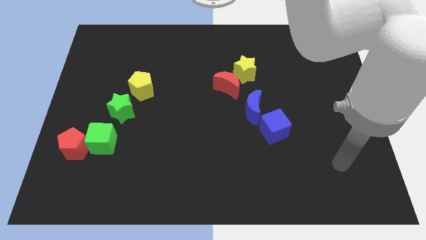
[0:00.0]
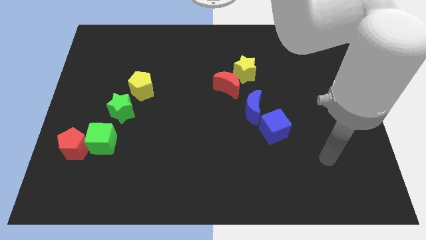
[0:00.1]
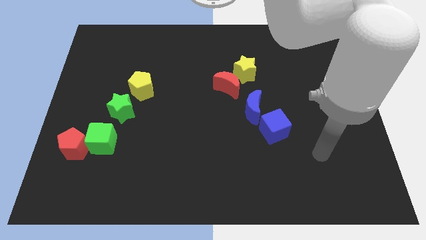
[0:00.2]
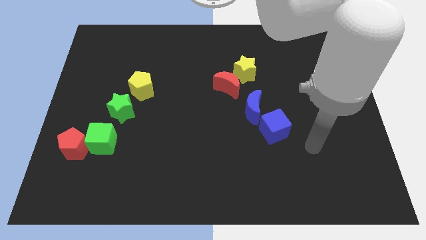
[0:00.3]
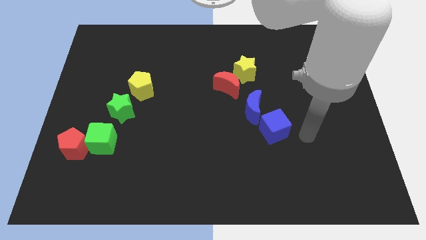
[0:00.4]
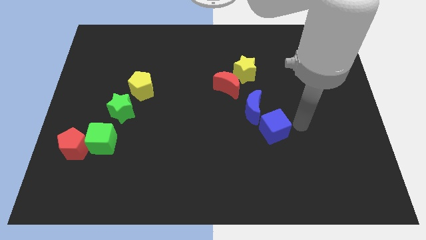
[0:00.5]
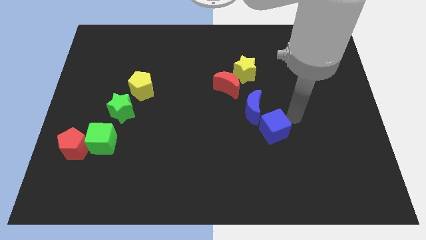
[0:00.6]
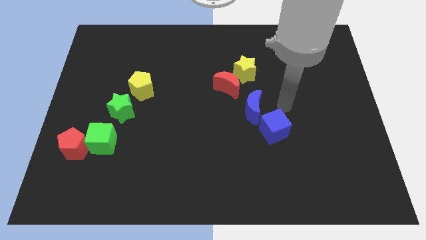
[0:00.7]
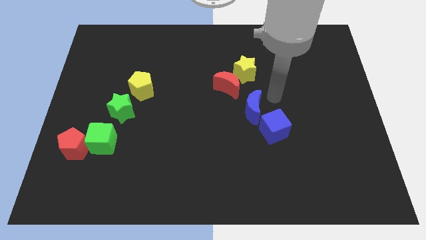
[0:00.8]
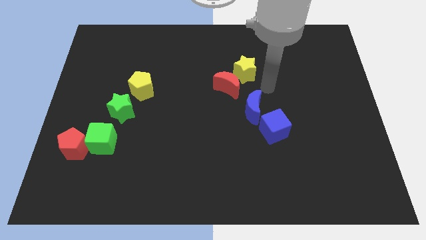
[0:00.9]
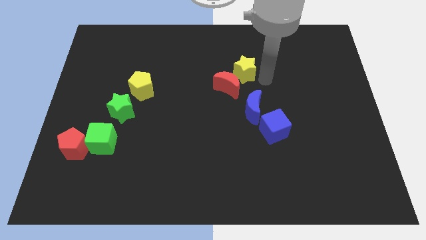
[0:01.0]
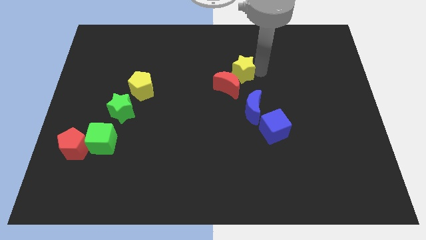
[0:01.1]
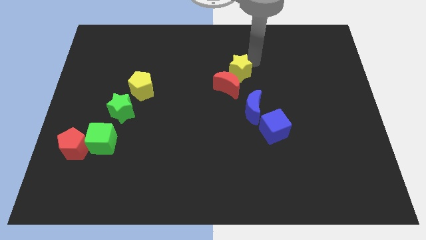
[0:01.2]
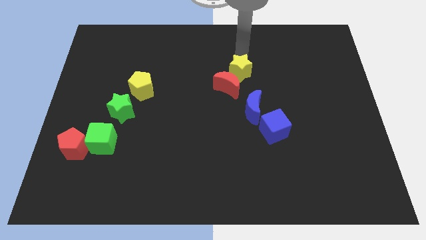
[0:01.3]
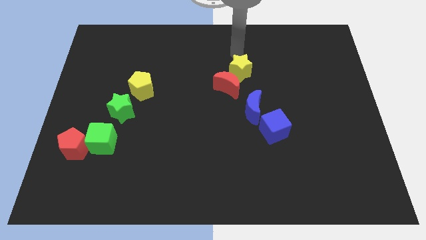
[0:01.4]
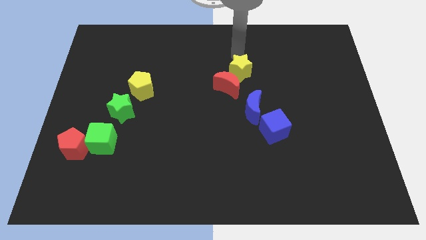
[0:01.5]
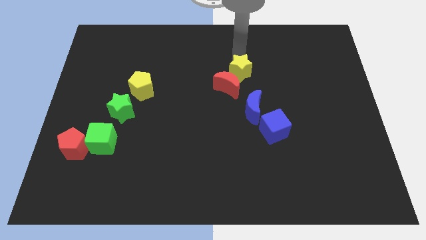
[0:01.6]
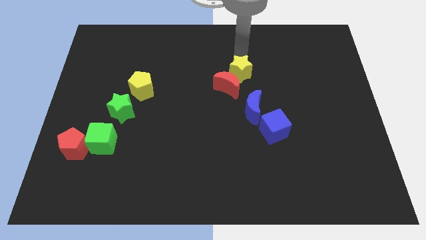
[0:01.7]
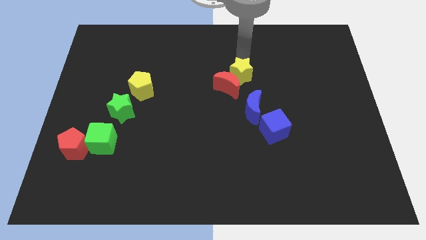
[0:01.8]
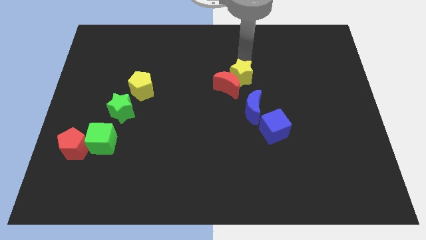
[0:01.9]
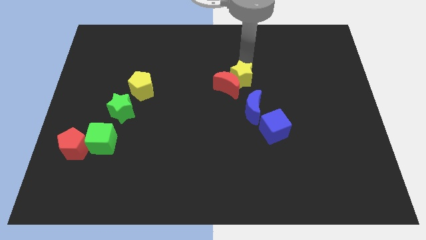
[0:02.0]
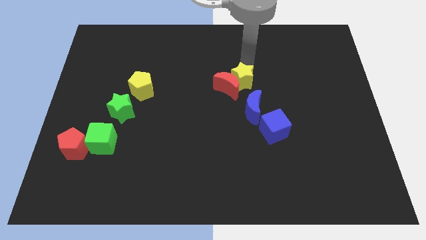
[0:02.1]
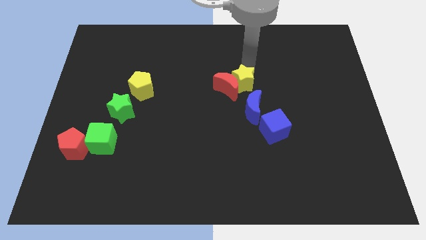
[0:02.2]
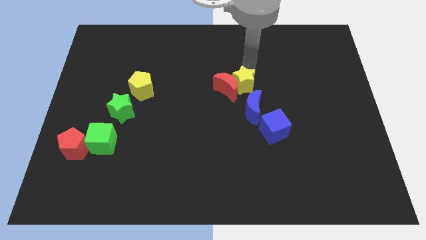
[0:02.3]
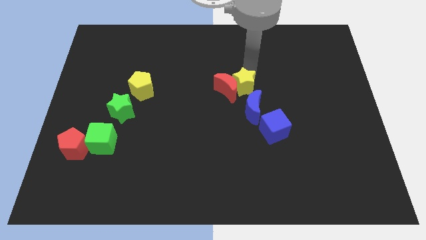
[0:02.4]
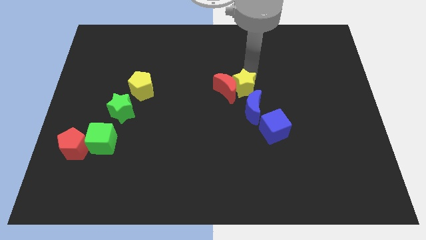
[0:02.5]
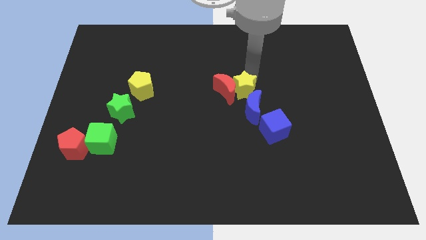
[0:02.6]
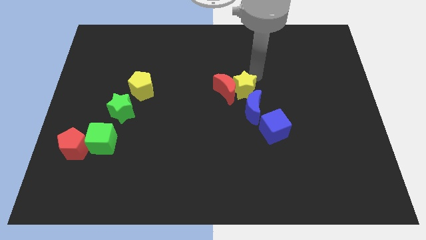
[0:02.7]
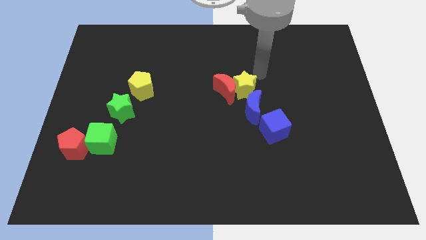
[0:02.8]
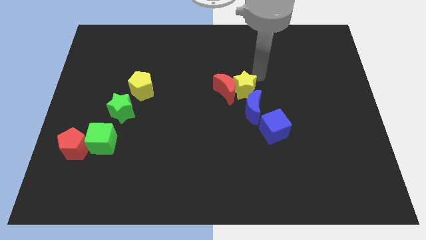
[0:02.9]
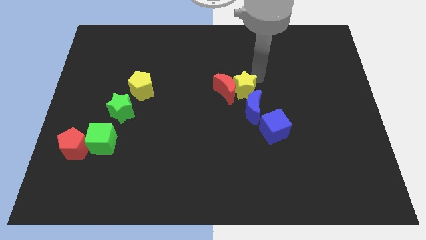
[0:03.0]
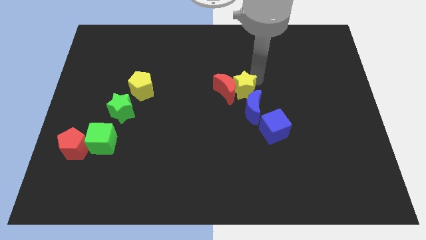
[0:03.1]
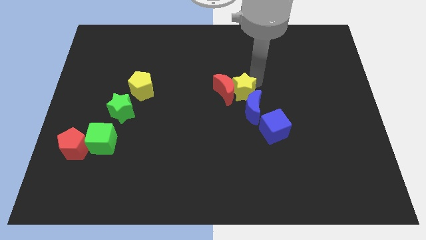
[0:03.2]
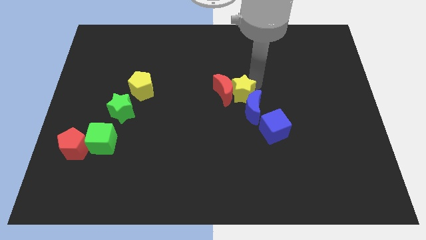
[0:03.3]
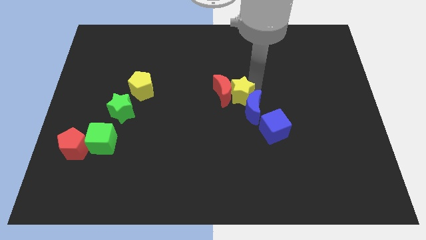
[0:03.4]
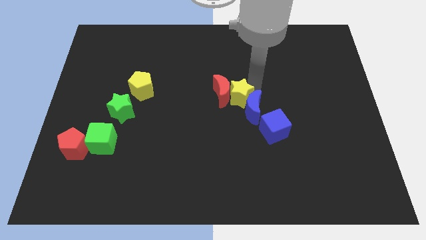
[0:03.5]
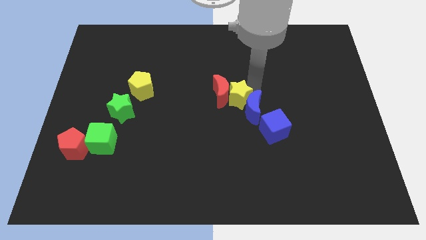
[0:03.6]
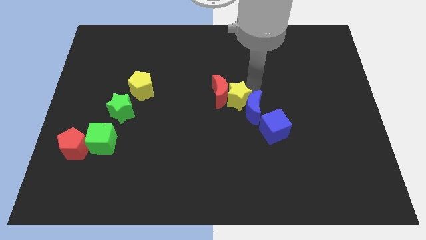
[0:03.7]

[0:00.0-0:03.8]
push the yellow star downwards and left diagonally somewhat

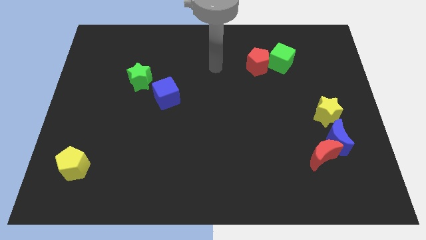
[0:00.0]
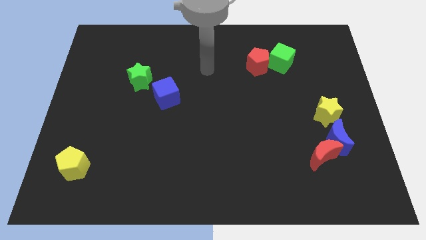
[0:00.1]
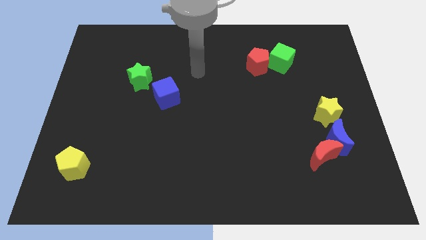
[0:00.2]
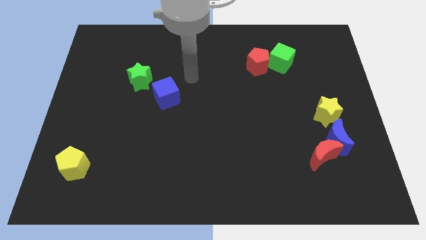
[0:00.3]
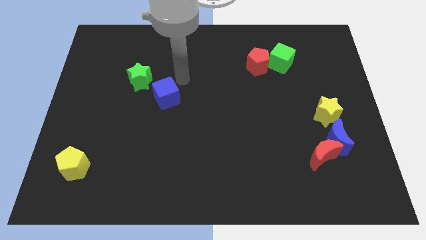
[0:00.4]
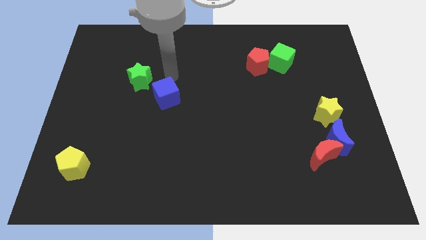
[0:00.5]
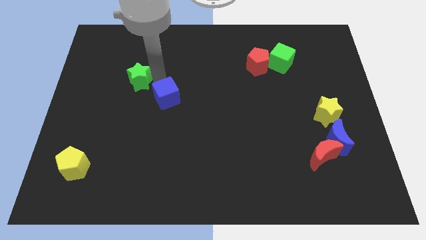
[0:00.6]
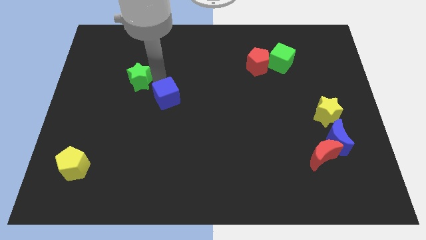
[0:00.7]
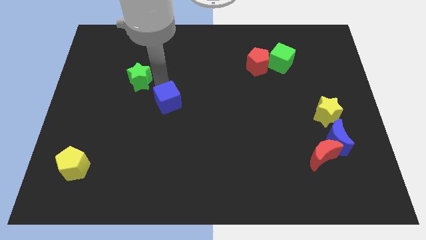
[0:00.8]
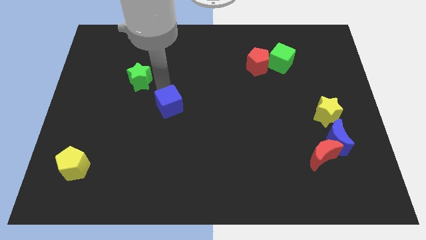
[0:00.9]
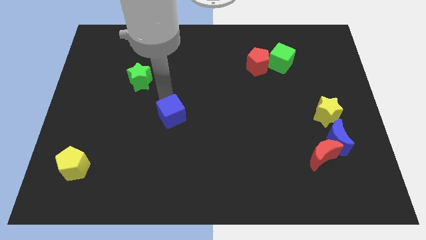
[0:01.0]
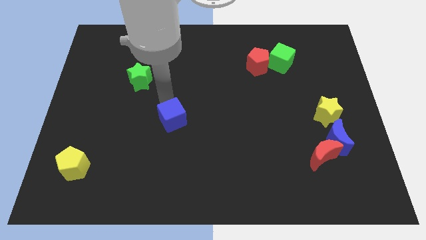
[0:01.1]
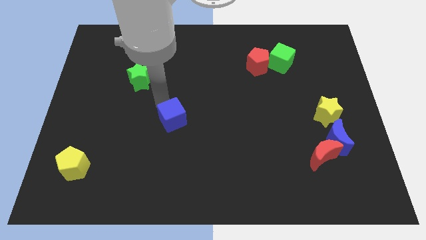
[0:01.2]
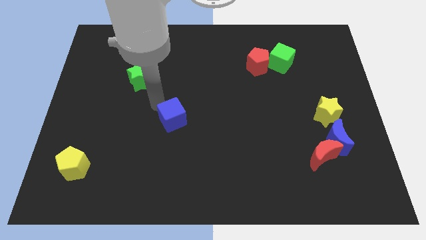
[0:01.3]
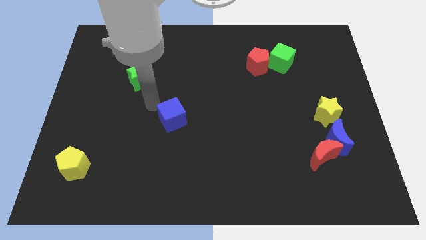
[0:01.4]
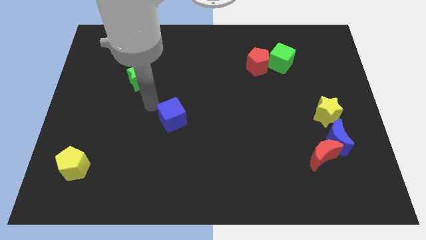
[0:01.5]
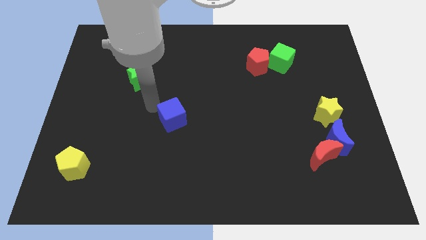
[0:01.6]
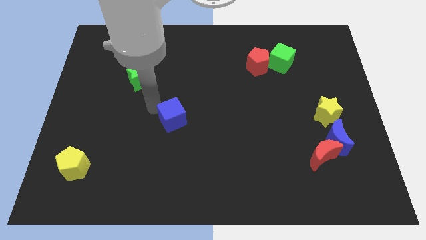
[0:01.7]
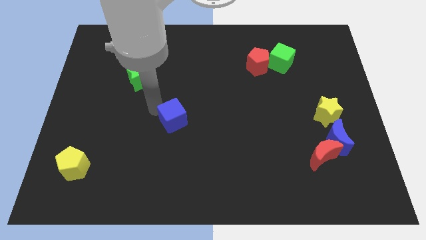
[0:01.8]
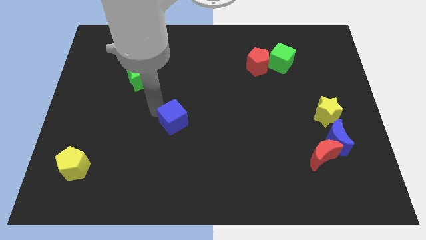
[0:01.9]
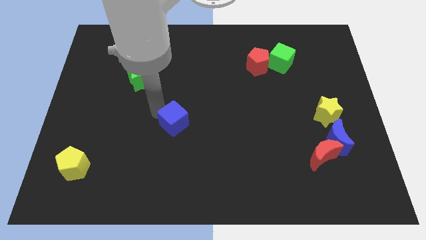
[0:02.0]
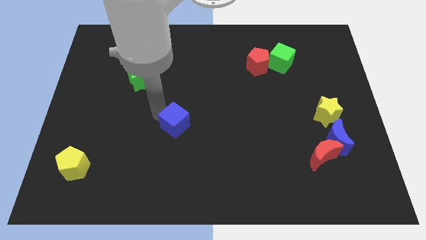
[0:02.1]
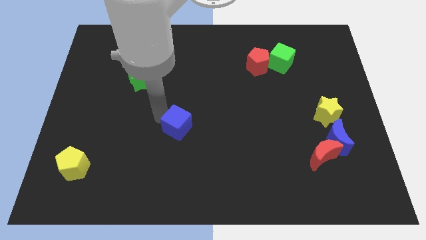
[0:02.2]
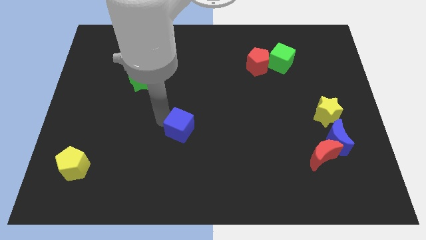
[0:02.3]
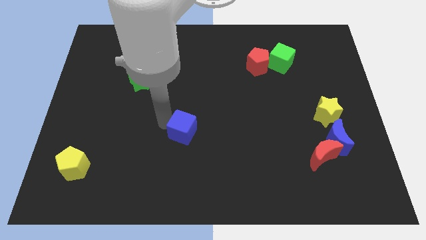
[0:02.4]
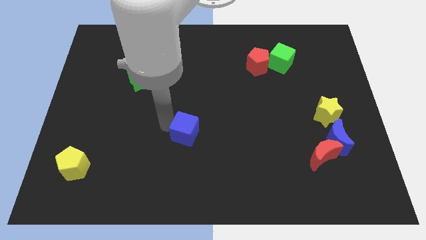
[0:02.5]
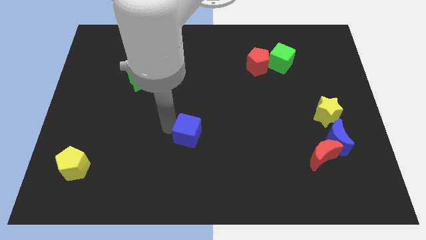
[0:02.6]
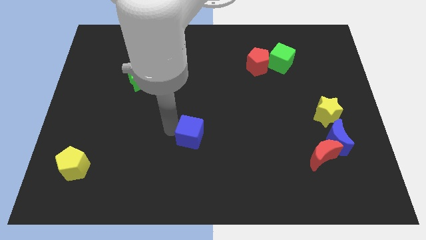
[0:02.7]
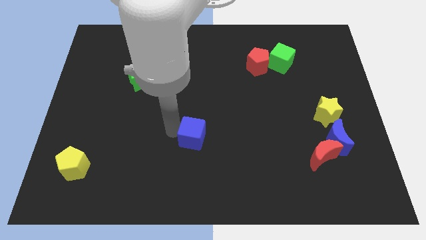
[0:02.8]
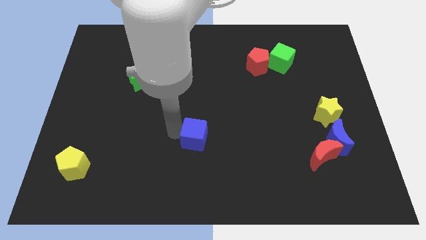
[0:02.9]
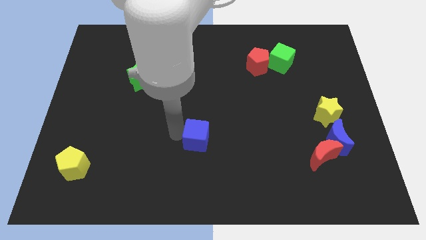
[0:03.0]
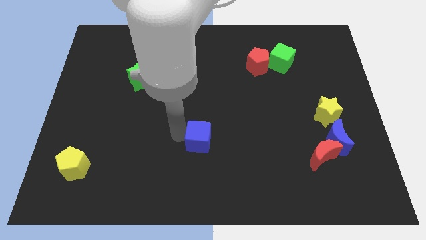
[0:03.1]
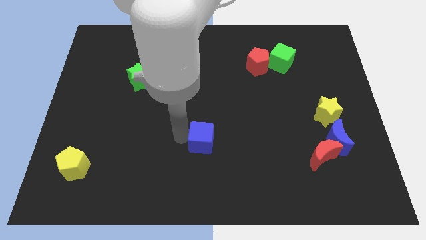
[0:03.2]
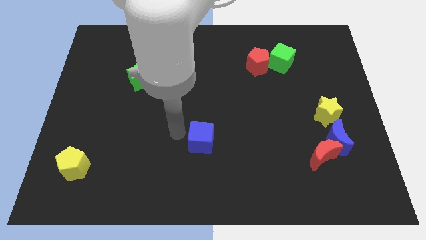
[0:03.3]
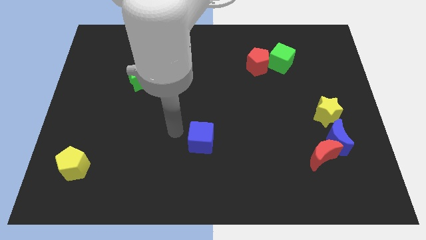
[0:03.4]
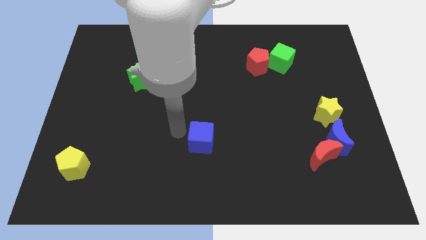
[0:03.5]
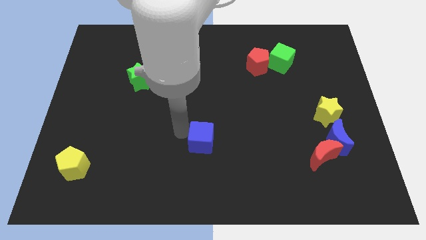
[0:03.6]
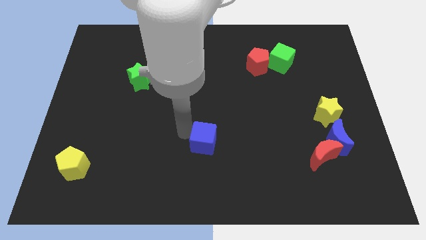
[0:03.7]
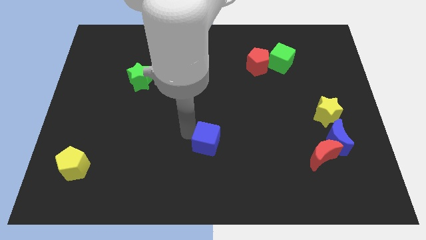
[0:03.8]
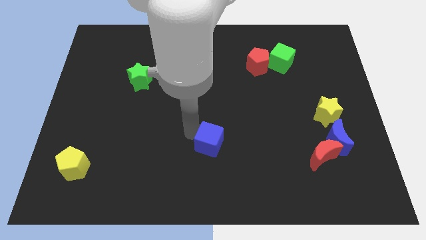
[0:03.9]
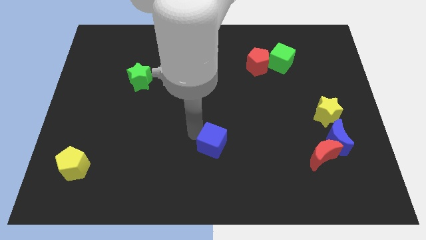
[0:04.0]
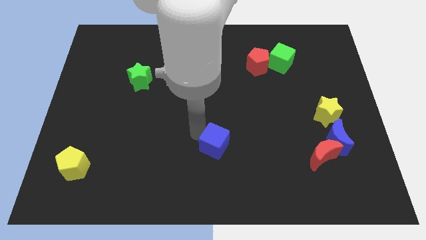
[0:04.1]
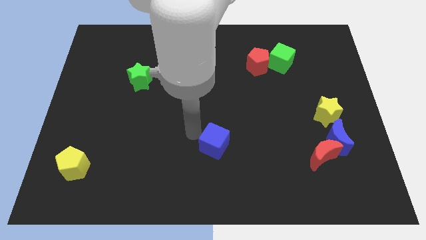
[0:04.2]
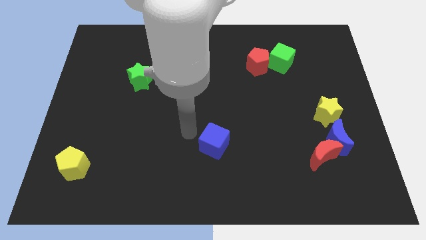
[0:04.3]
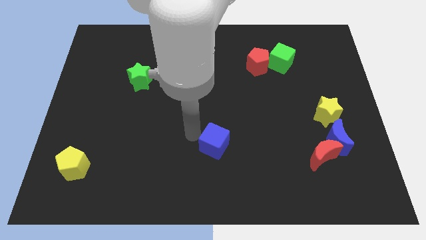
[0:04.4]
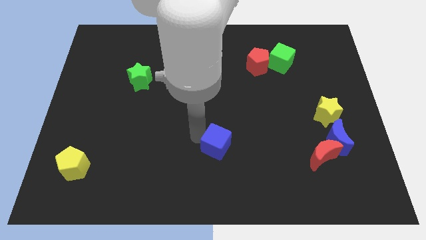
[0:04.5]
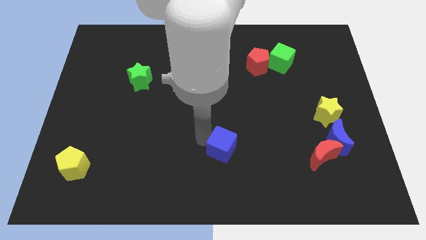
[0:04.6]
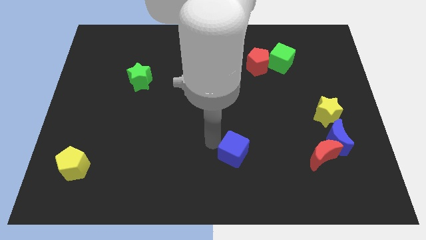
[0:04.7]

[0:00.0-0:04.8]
move the blue cube diagonally downwards and to the right
